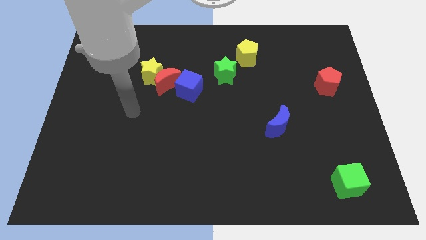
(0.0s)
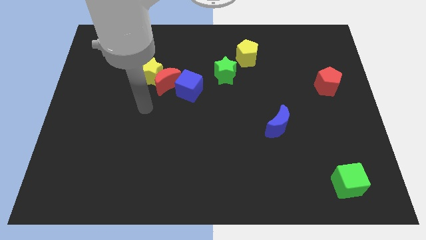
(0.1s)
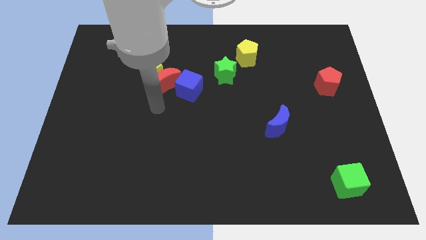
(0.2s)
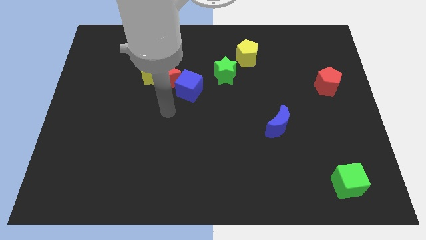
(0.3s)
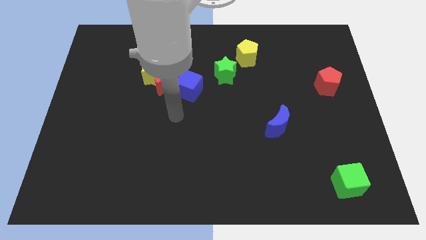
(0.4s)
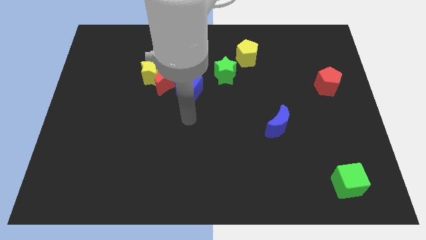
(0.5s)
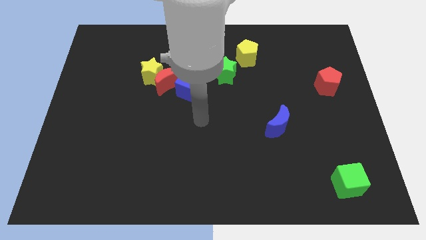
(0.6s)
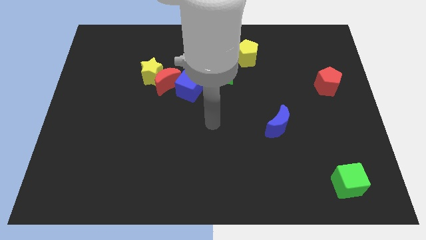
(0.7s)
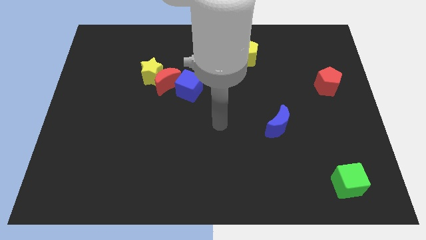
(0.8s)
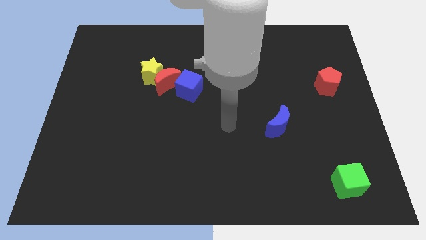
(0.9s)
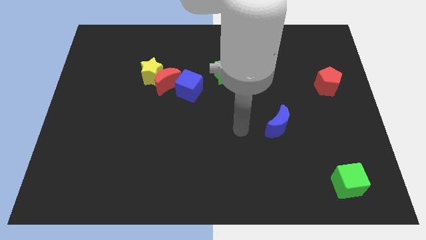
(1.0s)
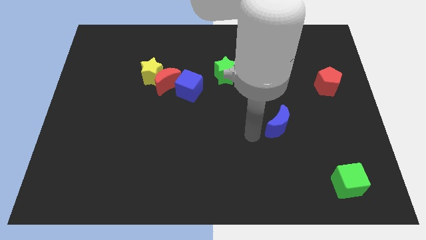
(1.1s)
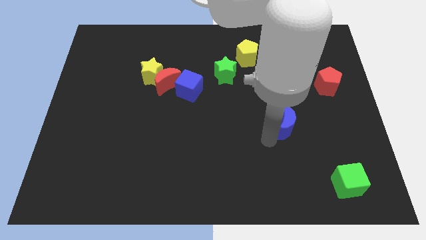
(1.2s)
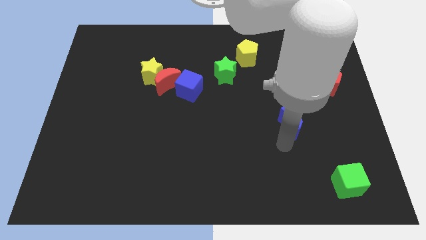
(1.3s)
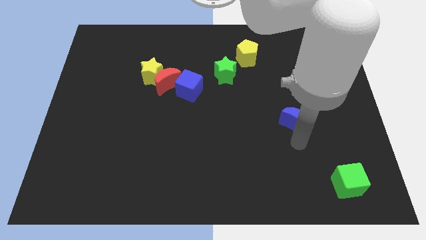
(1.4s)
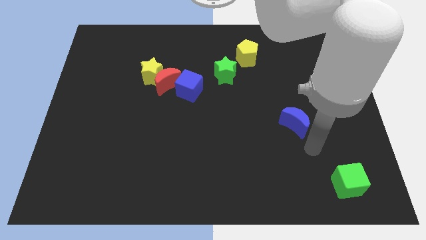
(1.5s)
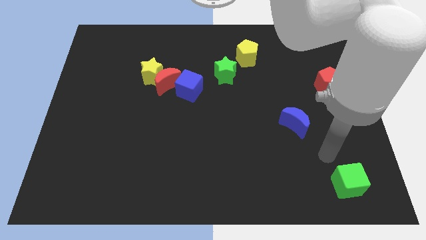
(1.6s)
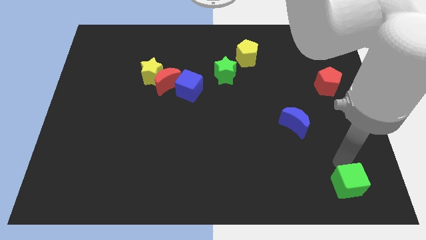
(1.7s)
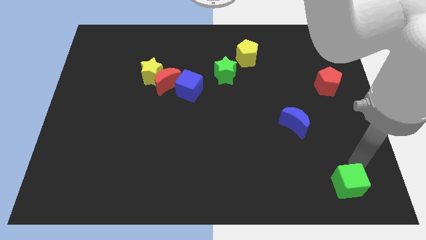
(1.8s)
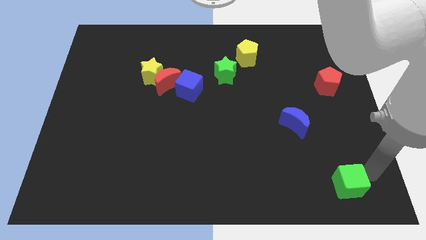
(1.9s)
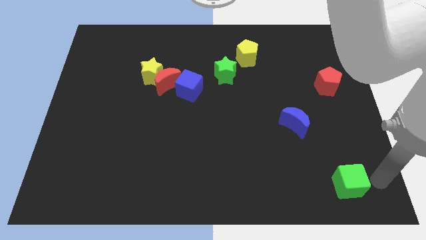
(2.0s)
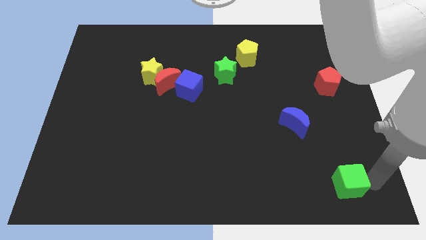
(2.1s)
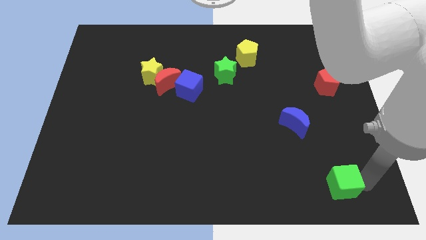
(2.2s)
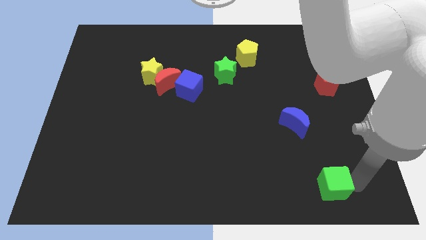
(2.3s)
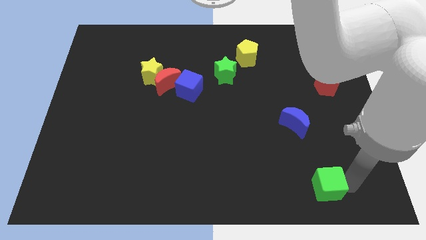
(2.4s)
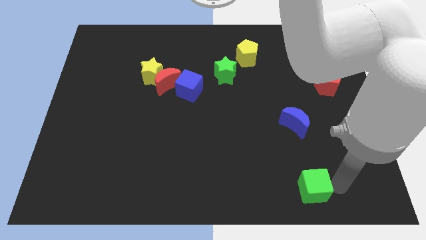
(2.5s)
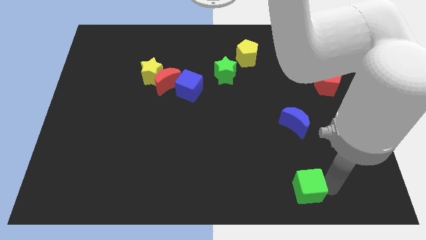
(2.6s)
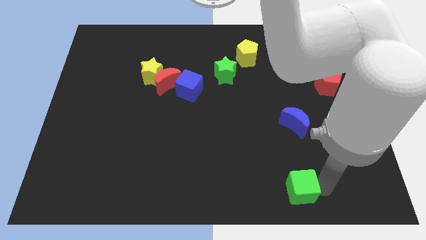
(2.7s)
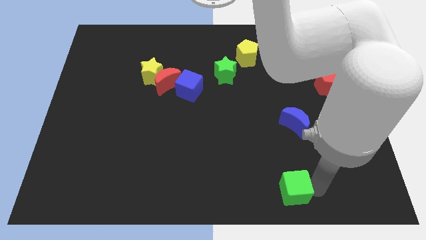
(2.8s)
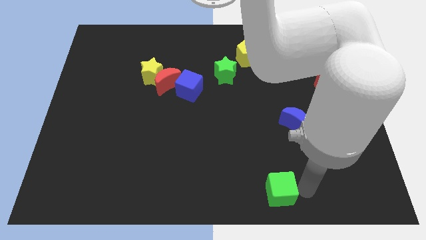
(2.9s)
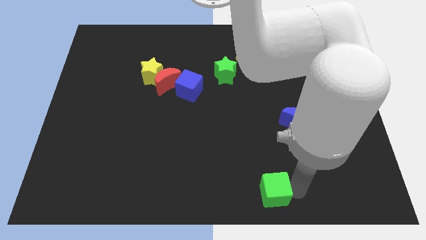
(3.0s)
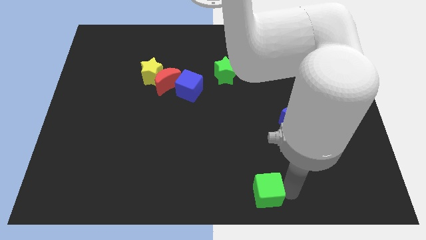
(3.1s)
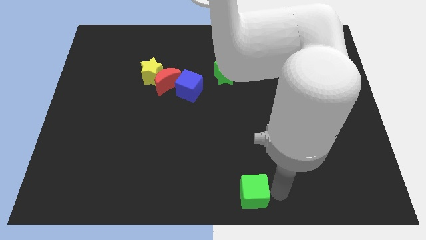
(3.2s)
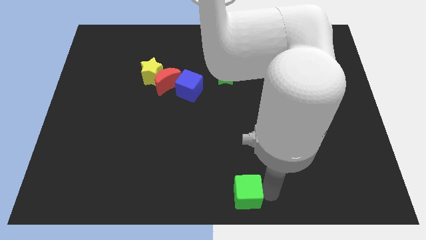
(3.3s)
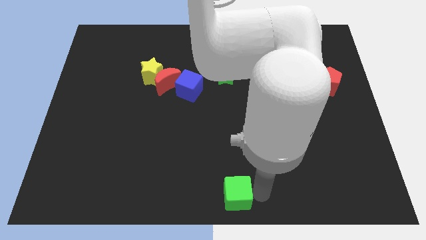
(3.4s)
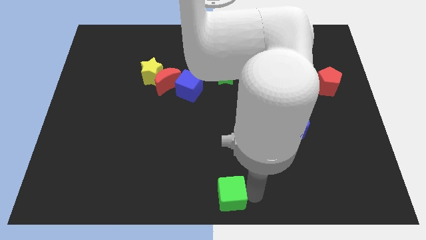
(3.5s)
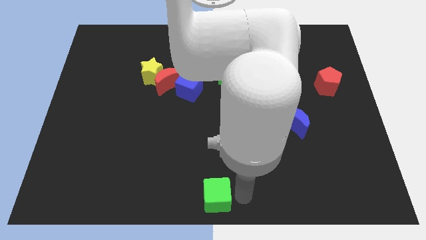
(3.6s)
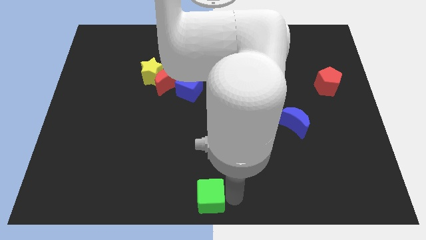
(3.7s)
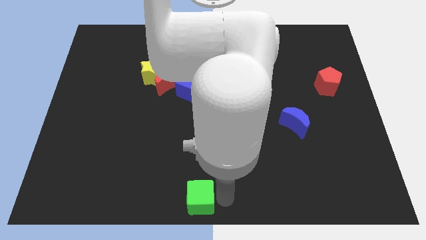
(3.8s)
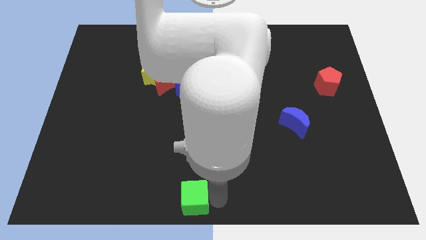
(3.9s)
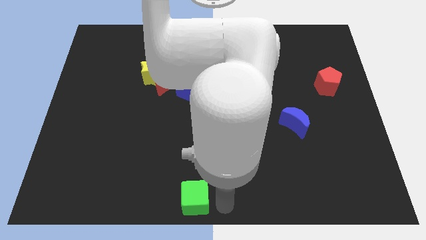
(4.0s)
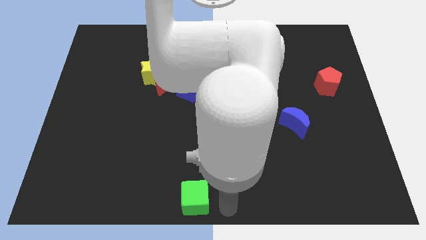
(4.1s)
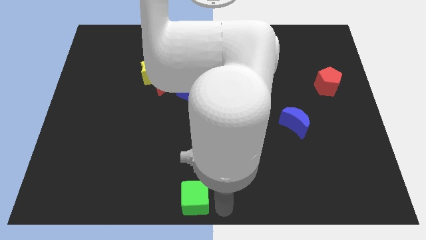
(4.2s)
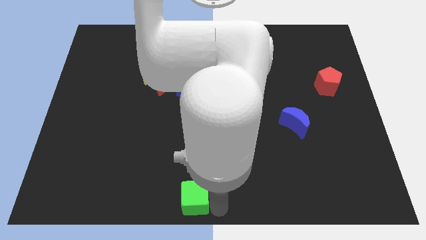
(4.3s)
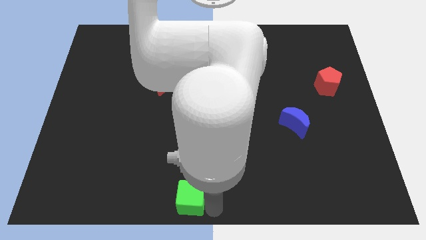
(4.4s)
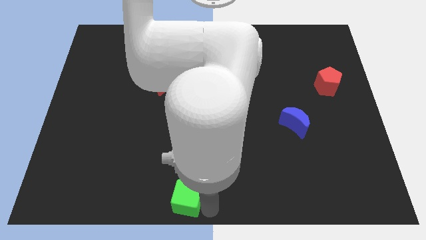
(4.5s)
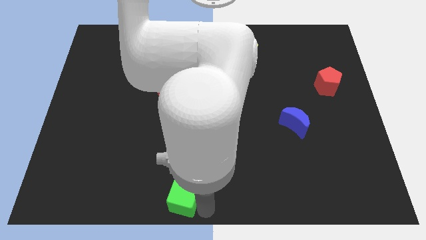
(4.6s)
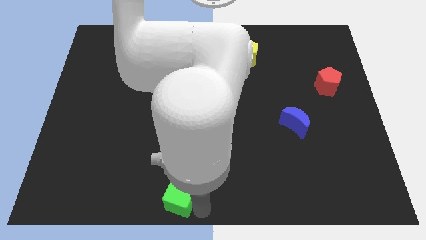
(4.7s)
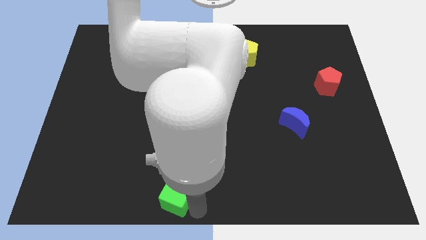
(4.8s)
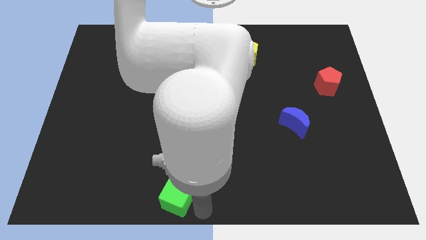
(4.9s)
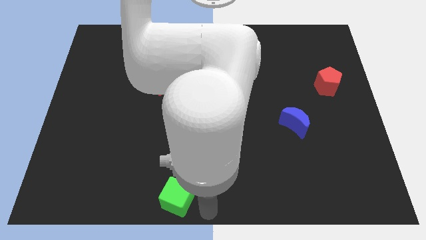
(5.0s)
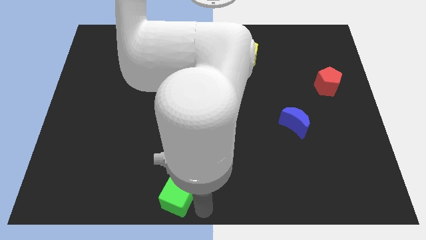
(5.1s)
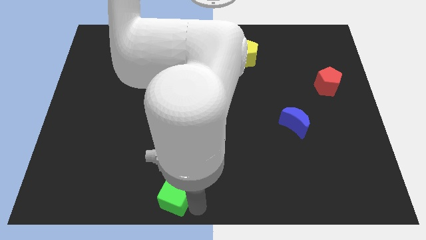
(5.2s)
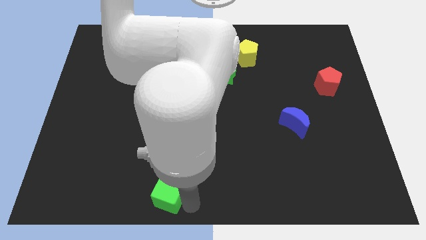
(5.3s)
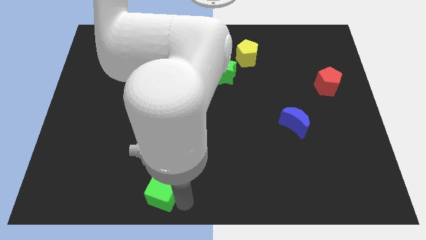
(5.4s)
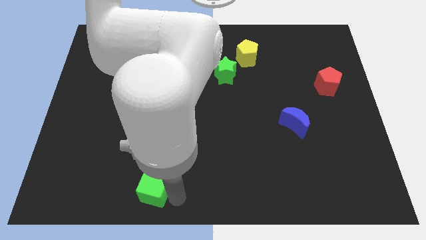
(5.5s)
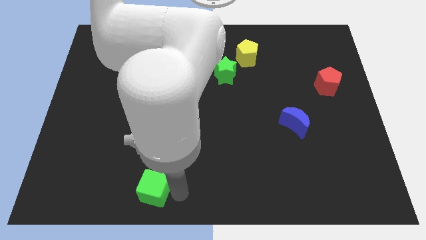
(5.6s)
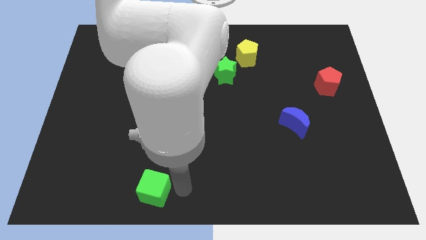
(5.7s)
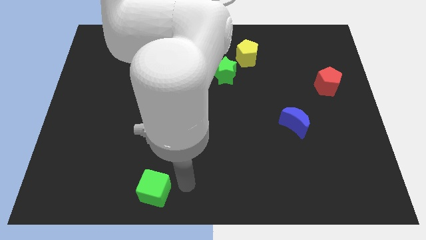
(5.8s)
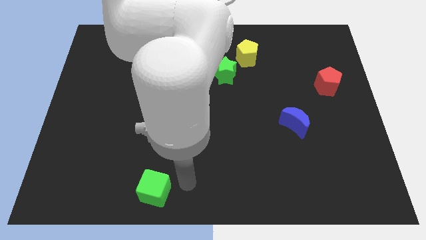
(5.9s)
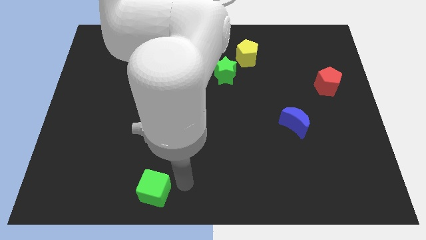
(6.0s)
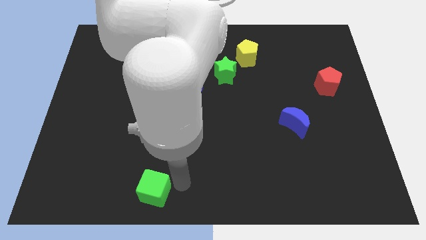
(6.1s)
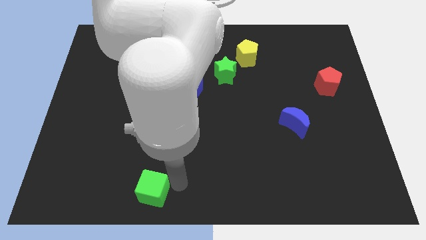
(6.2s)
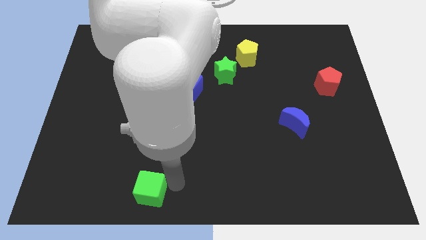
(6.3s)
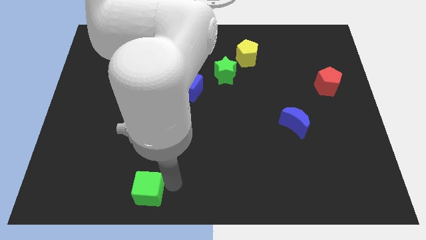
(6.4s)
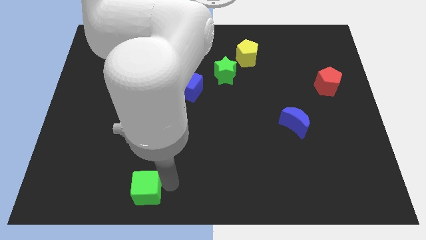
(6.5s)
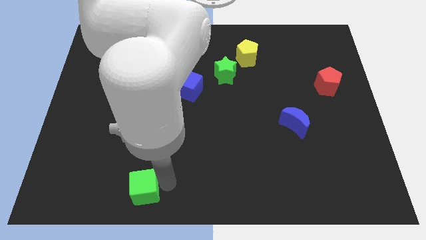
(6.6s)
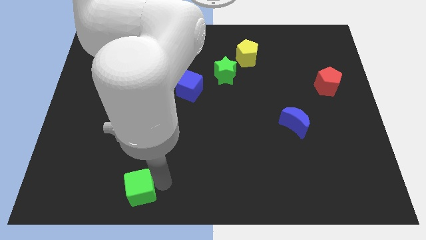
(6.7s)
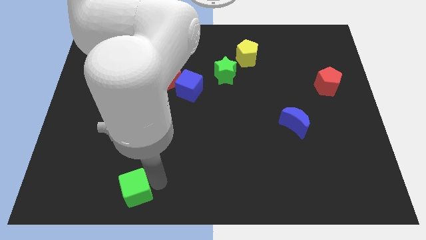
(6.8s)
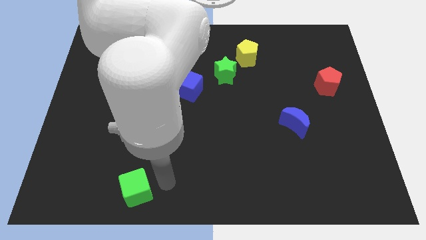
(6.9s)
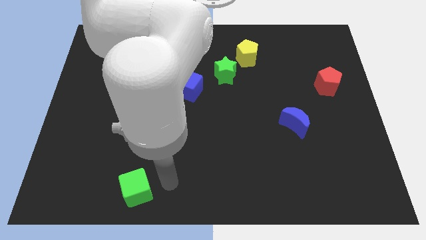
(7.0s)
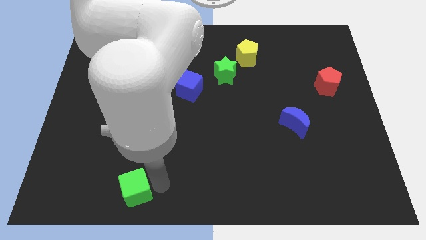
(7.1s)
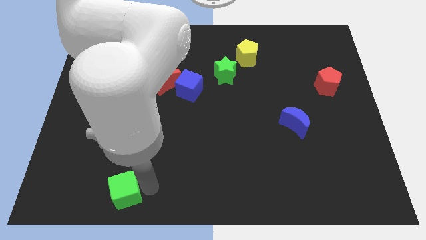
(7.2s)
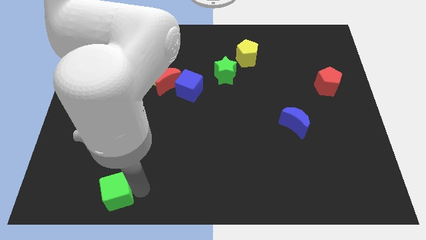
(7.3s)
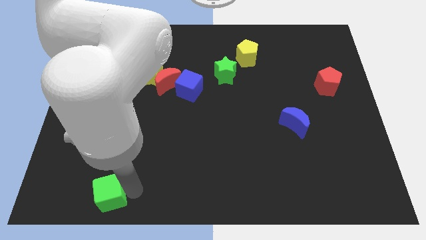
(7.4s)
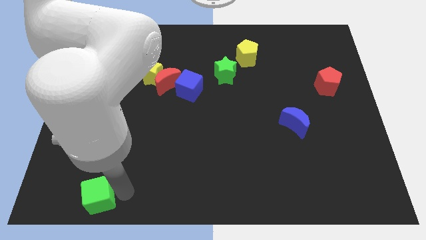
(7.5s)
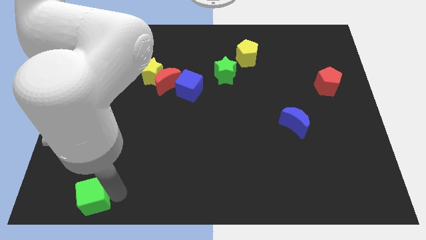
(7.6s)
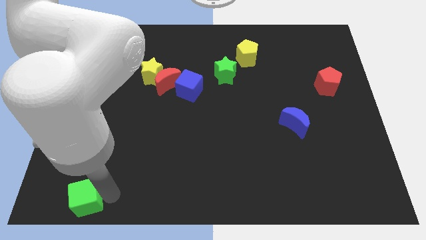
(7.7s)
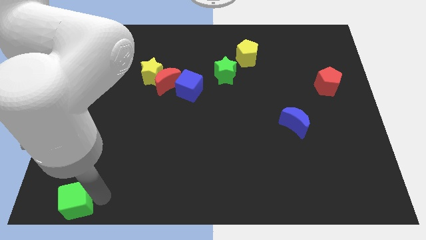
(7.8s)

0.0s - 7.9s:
slide the green cube to the bottom left of the board
